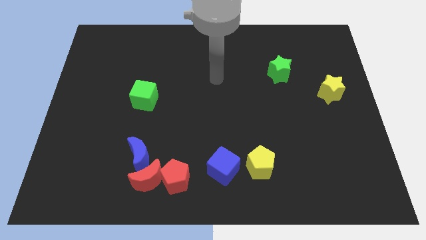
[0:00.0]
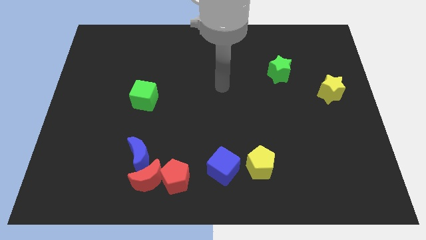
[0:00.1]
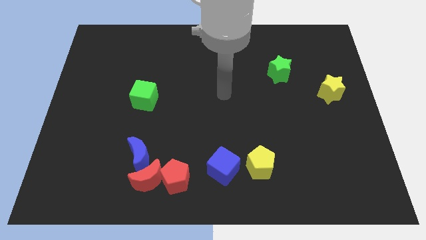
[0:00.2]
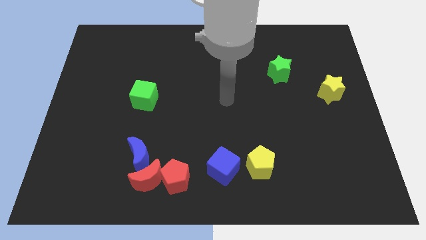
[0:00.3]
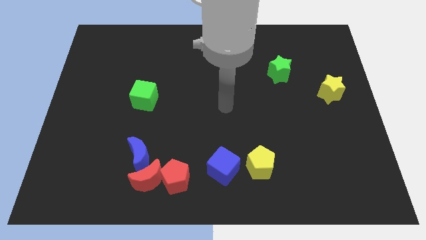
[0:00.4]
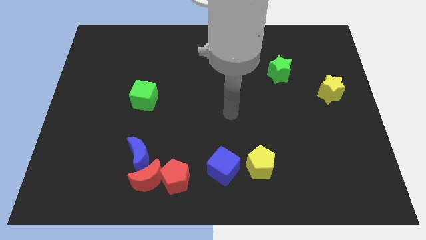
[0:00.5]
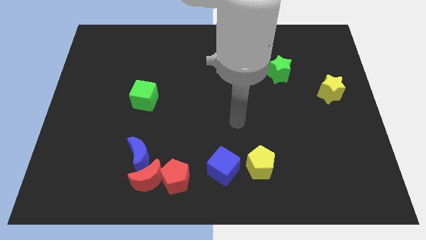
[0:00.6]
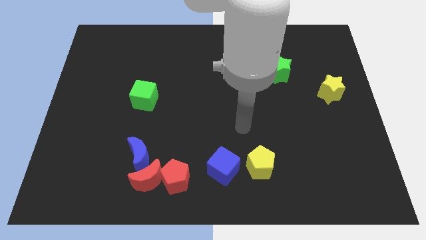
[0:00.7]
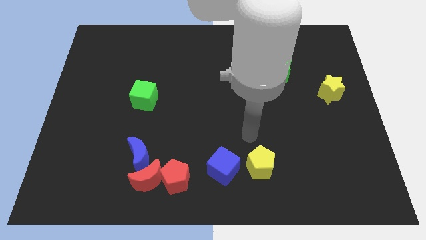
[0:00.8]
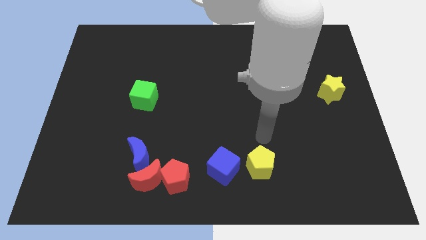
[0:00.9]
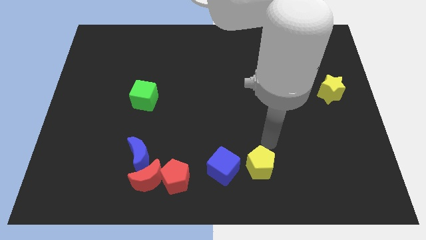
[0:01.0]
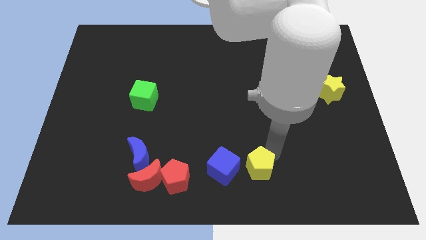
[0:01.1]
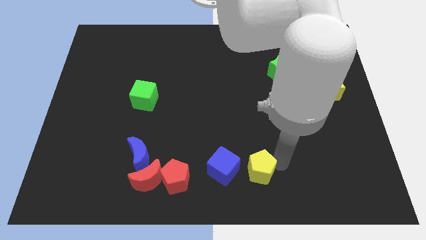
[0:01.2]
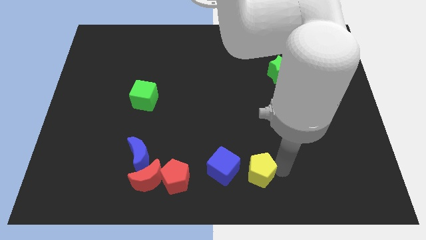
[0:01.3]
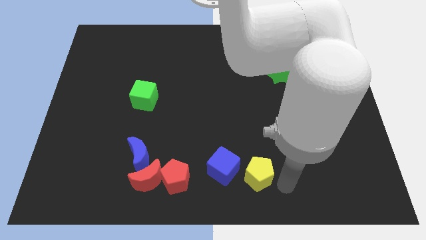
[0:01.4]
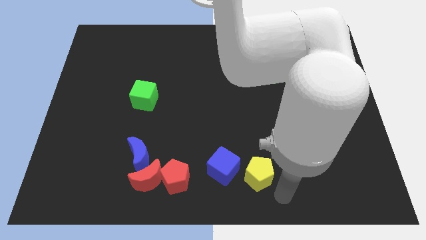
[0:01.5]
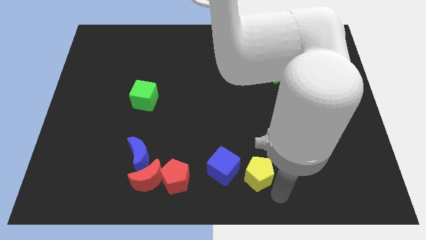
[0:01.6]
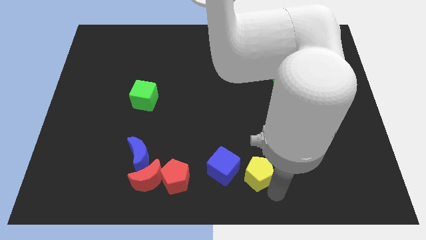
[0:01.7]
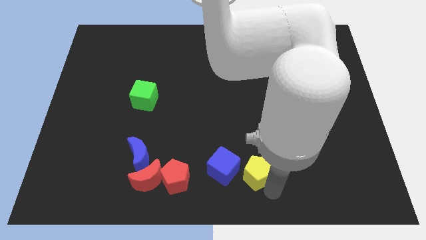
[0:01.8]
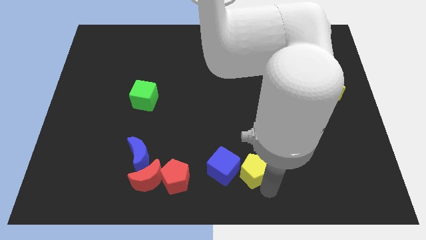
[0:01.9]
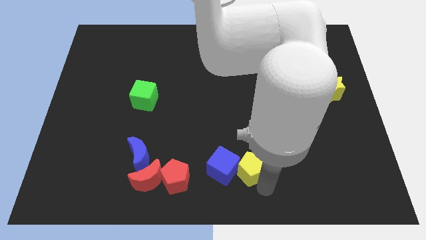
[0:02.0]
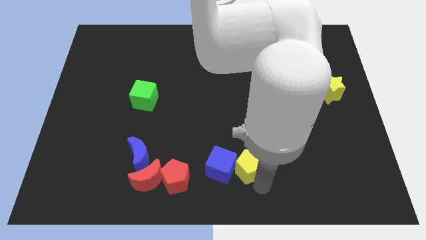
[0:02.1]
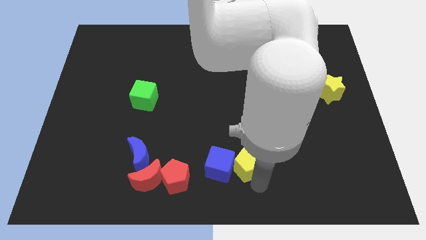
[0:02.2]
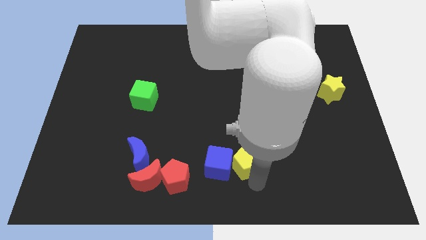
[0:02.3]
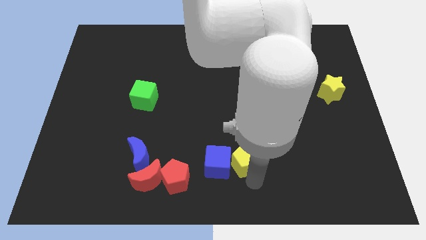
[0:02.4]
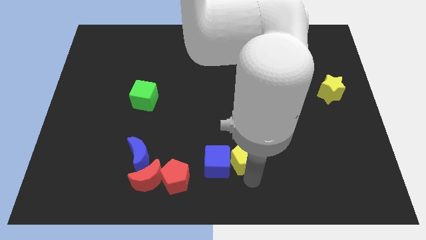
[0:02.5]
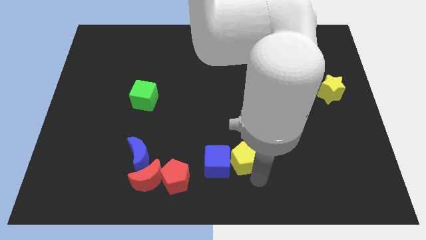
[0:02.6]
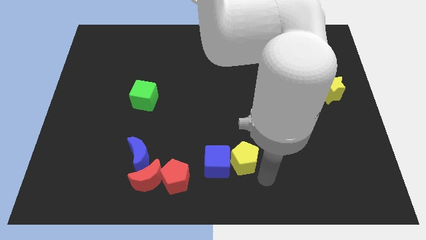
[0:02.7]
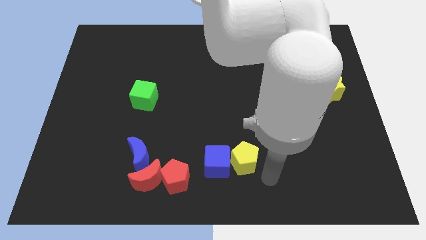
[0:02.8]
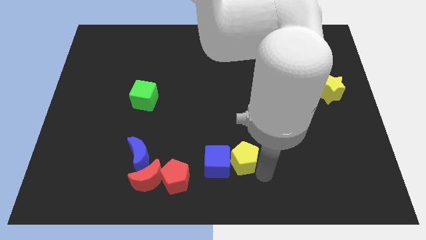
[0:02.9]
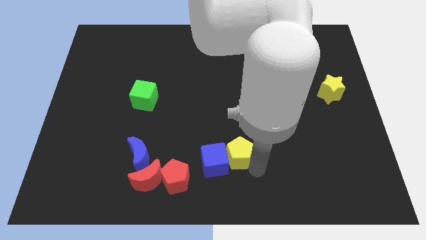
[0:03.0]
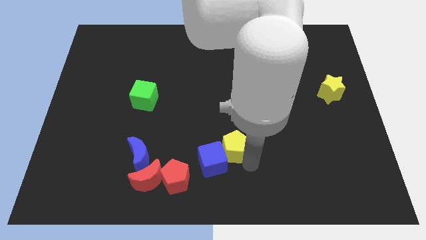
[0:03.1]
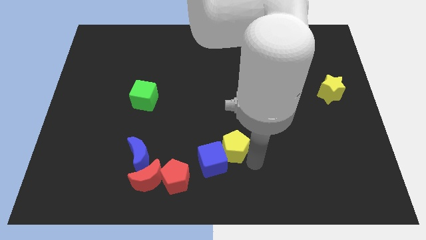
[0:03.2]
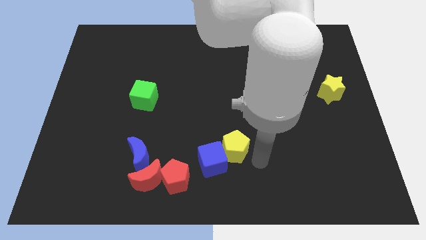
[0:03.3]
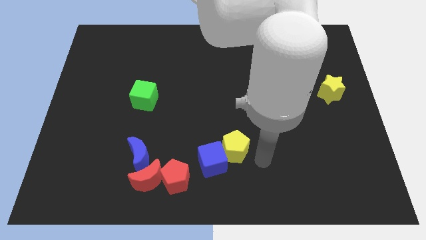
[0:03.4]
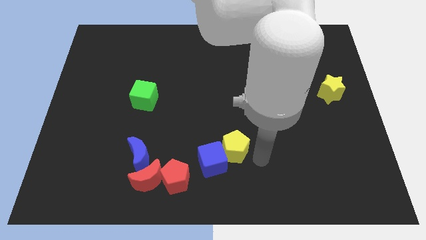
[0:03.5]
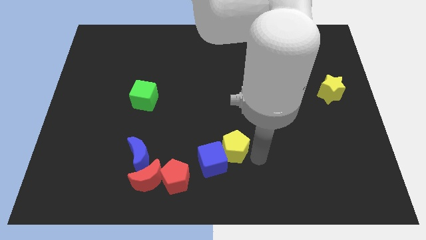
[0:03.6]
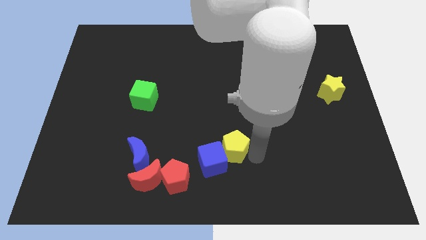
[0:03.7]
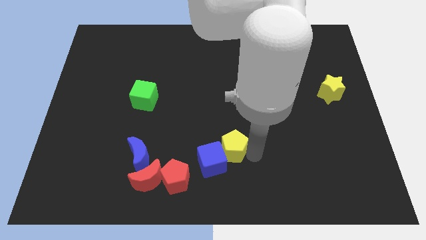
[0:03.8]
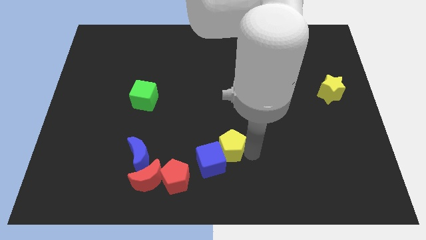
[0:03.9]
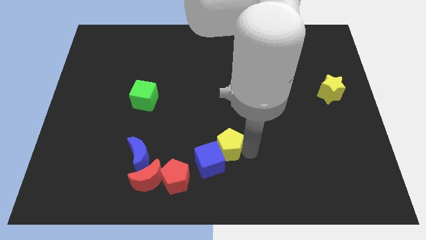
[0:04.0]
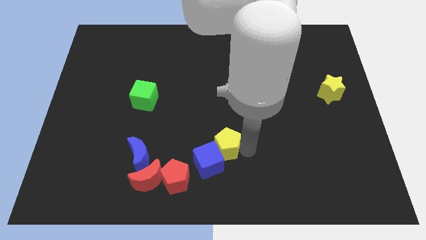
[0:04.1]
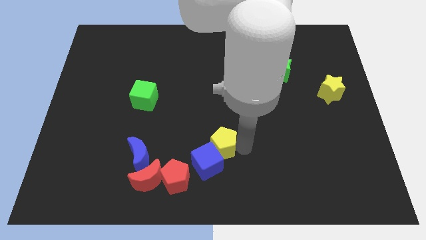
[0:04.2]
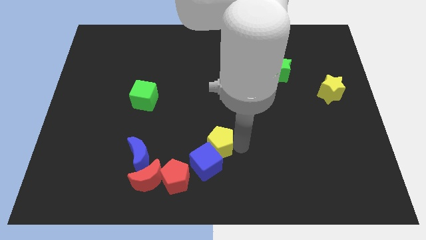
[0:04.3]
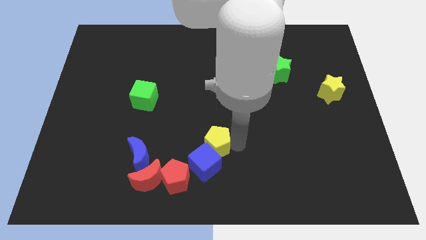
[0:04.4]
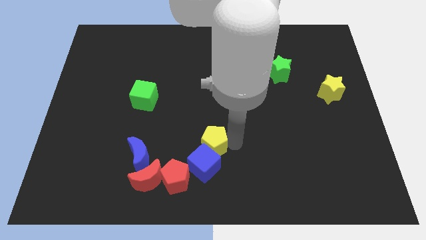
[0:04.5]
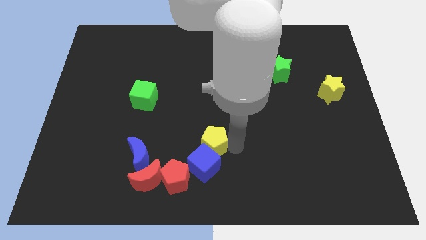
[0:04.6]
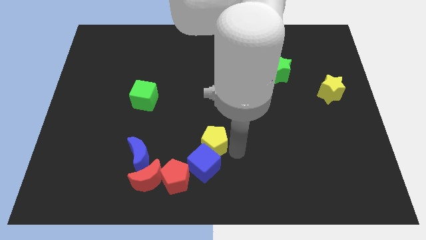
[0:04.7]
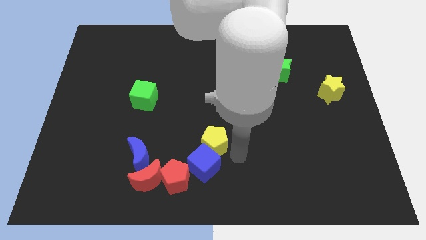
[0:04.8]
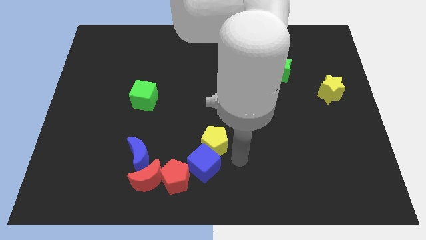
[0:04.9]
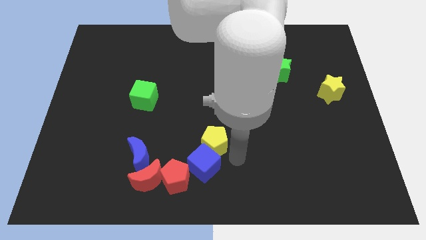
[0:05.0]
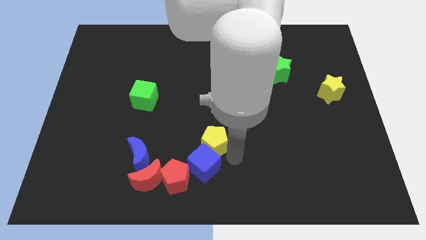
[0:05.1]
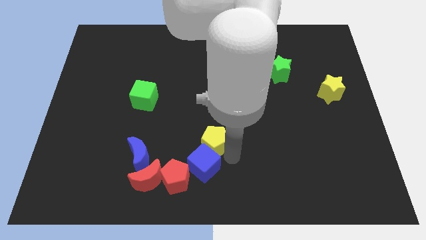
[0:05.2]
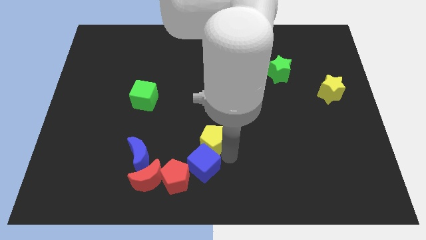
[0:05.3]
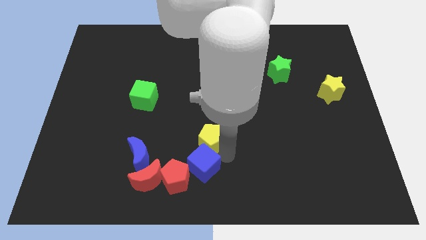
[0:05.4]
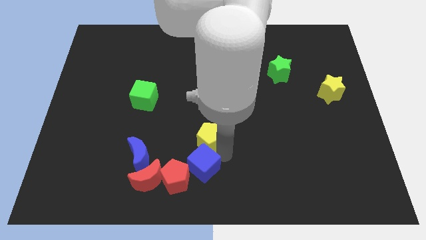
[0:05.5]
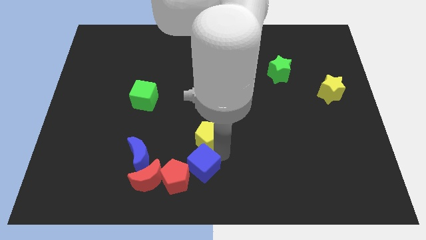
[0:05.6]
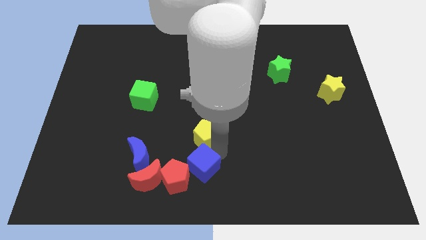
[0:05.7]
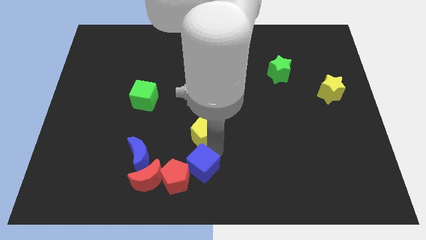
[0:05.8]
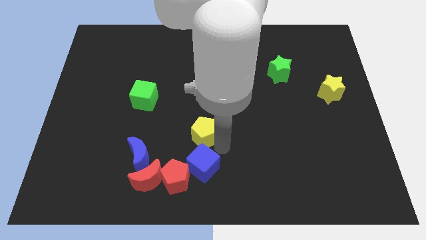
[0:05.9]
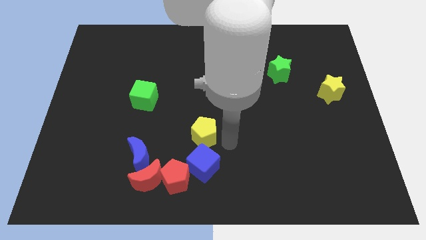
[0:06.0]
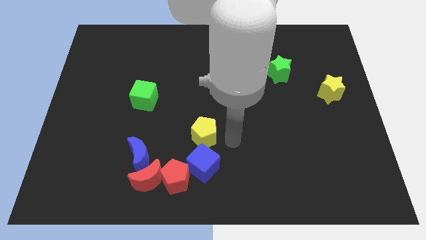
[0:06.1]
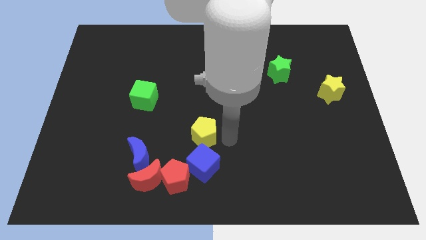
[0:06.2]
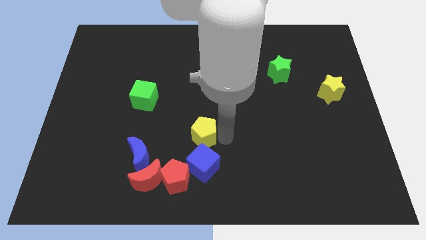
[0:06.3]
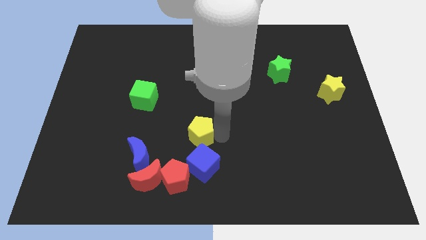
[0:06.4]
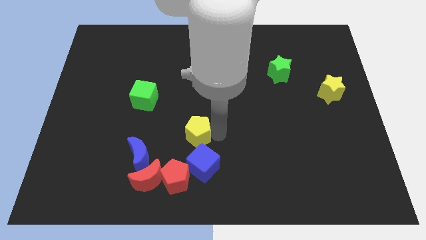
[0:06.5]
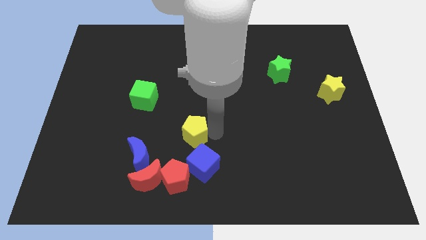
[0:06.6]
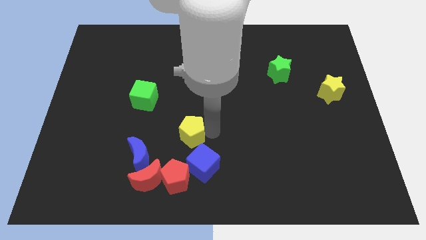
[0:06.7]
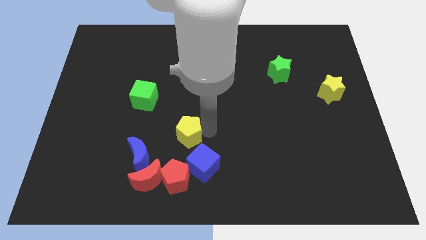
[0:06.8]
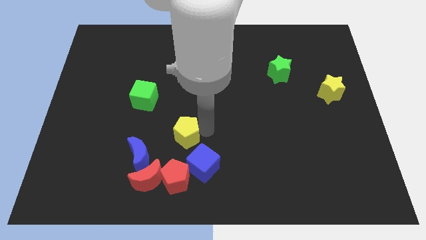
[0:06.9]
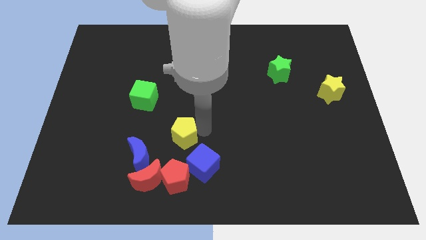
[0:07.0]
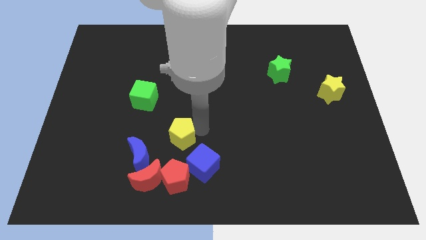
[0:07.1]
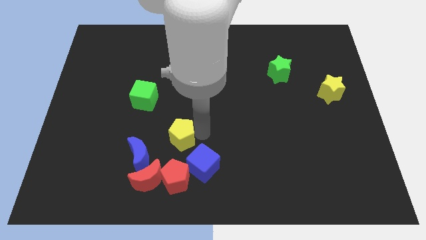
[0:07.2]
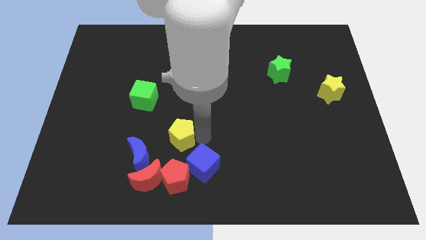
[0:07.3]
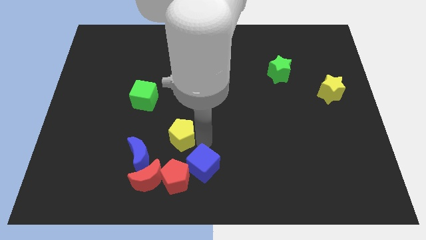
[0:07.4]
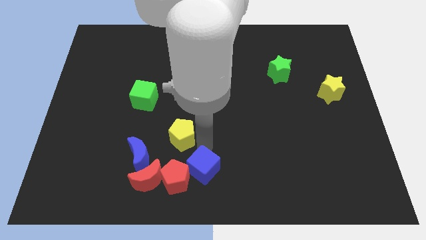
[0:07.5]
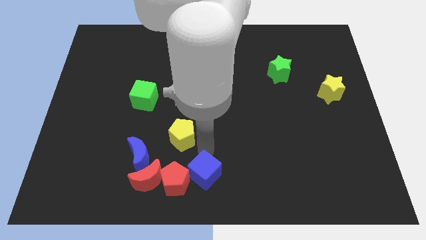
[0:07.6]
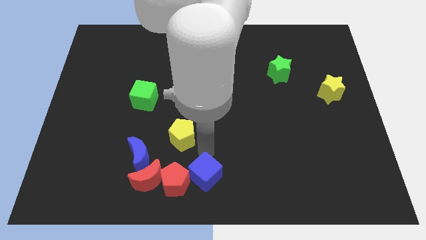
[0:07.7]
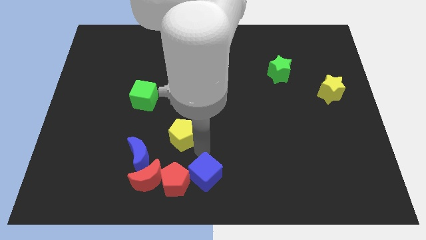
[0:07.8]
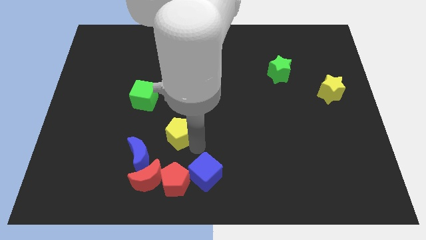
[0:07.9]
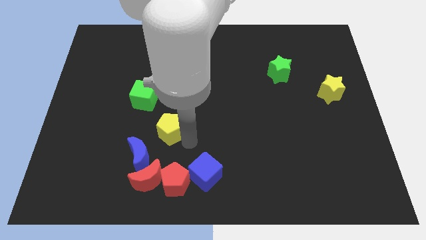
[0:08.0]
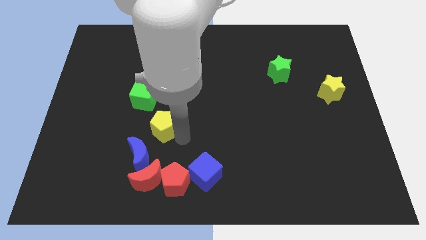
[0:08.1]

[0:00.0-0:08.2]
push the yellow pentagon to the top of the blue moon
